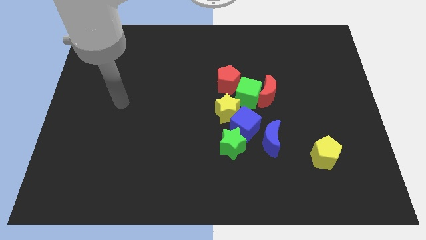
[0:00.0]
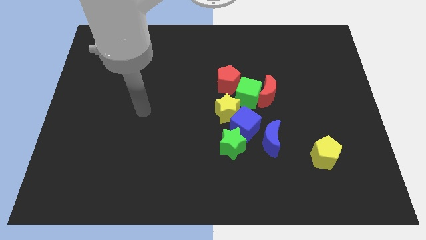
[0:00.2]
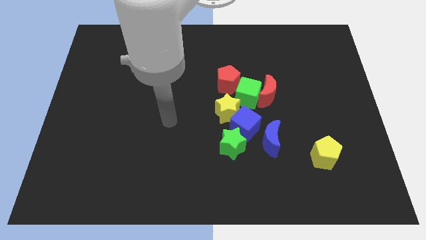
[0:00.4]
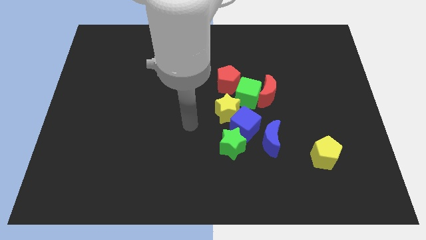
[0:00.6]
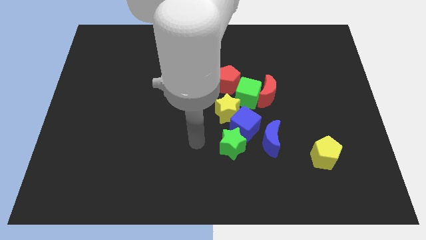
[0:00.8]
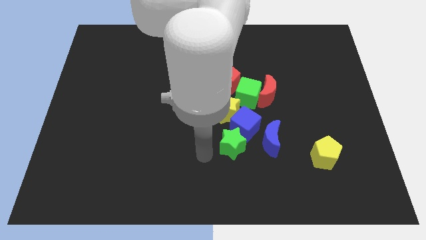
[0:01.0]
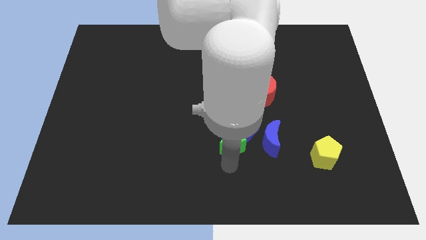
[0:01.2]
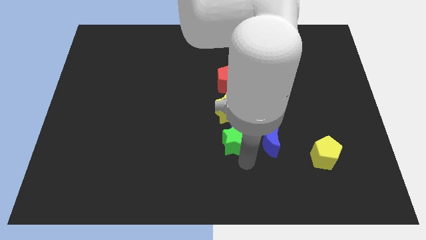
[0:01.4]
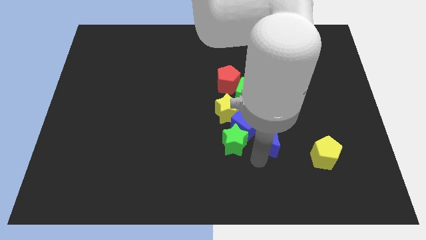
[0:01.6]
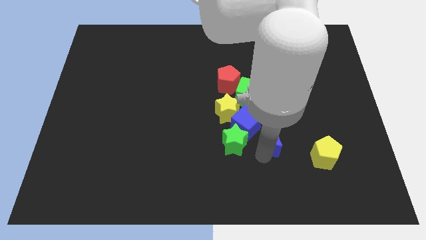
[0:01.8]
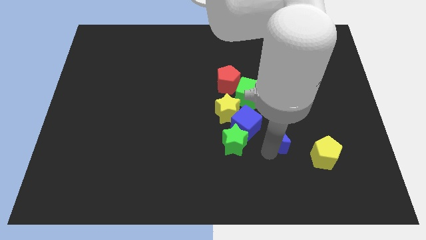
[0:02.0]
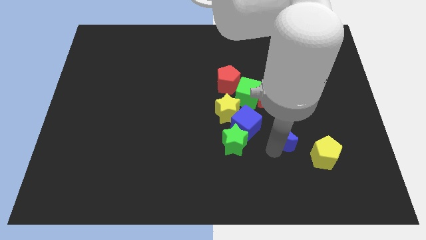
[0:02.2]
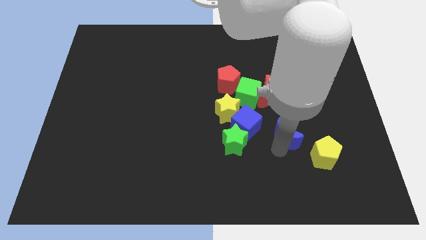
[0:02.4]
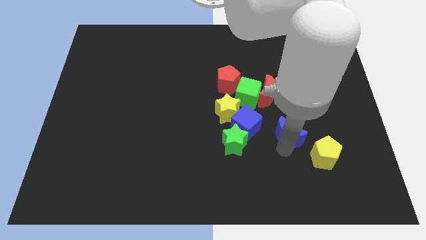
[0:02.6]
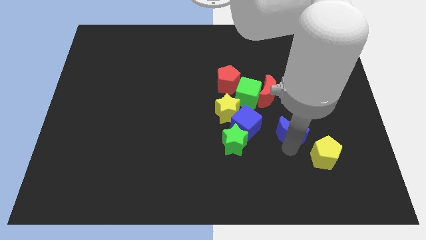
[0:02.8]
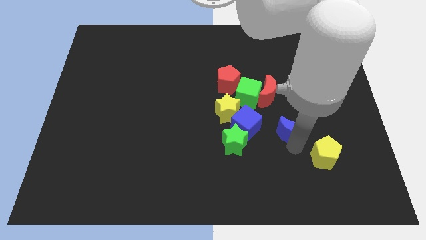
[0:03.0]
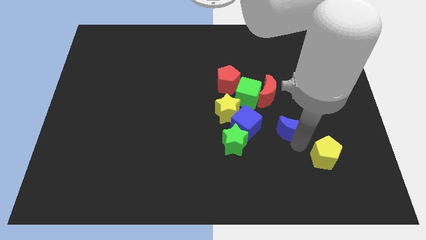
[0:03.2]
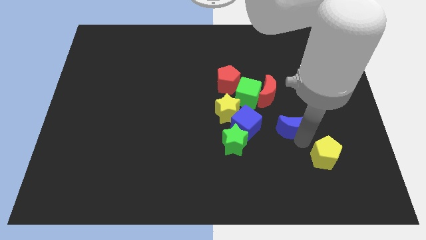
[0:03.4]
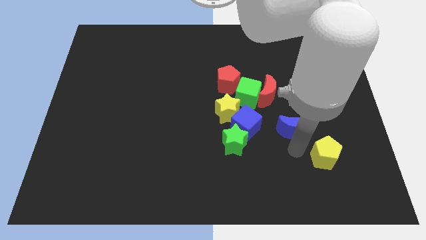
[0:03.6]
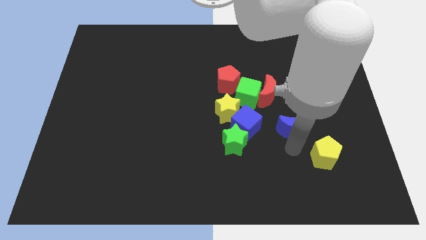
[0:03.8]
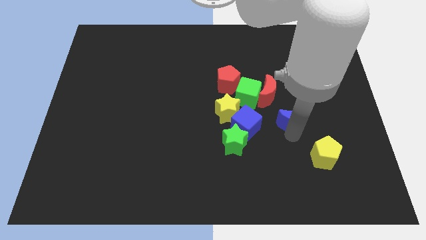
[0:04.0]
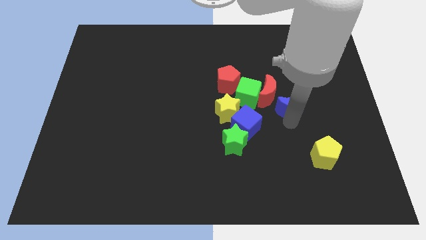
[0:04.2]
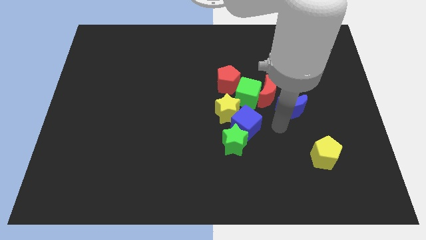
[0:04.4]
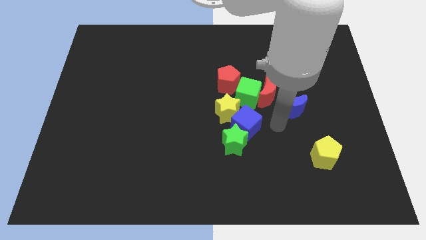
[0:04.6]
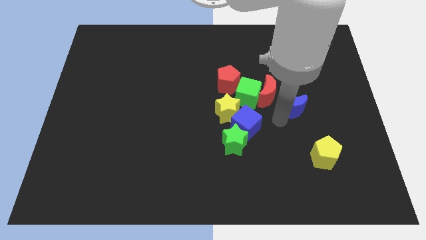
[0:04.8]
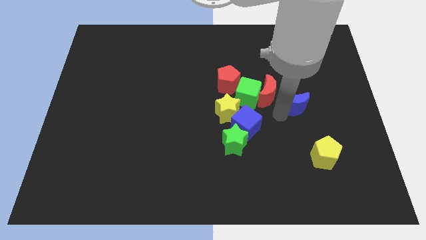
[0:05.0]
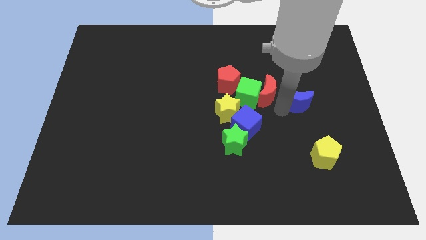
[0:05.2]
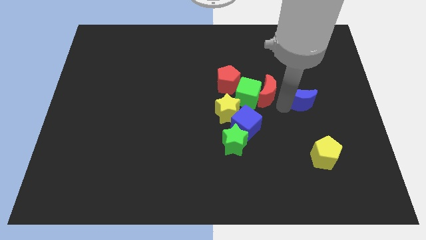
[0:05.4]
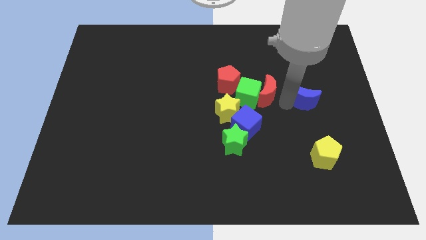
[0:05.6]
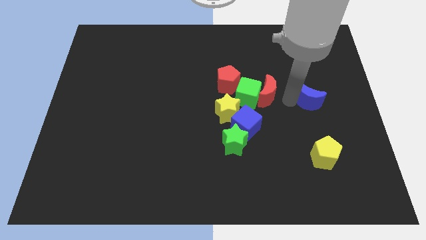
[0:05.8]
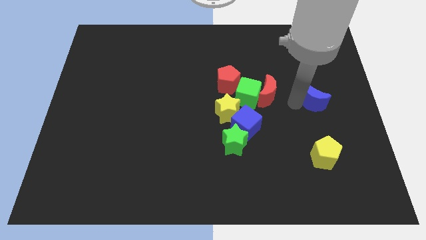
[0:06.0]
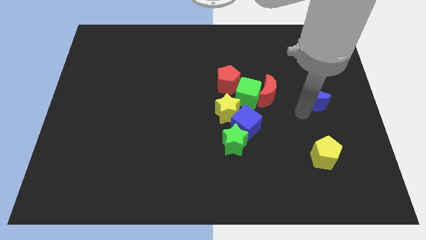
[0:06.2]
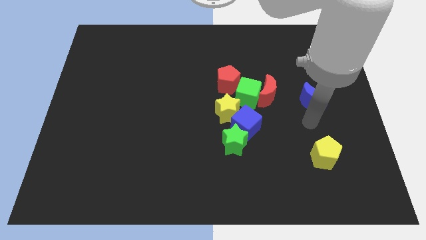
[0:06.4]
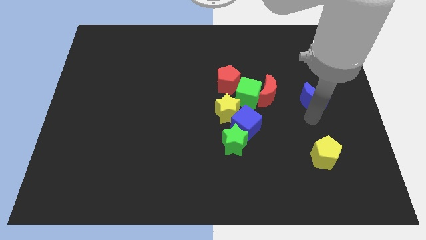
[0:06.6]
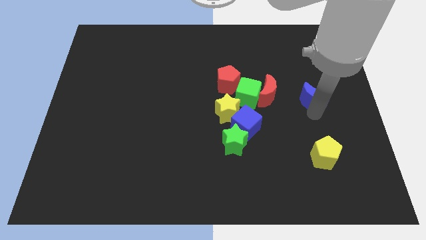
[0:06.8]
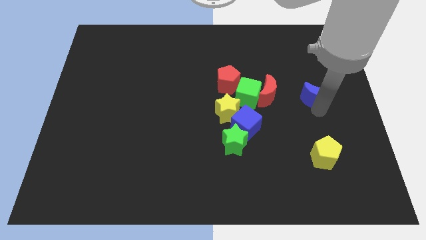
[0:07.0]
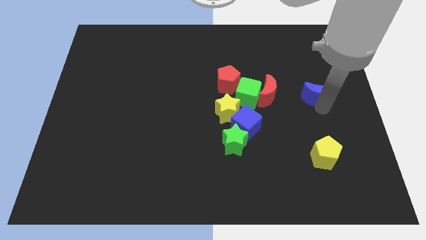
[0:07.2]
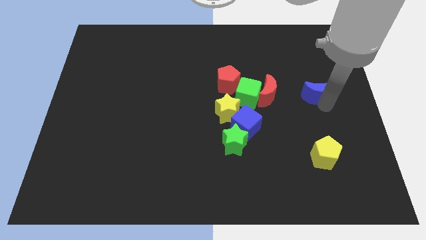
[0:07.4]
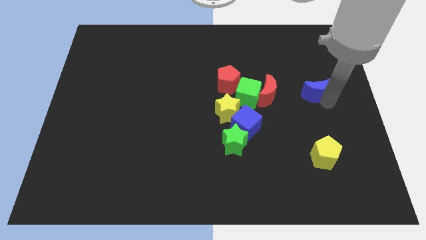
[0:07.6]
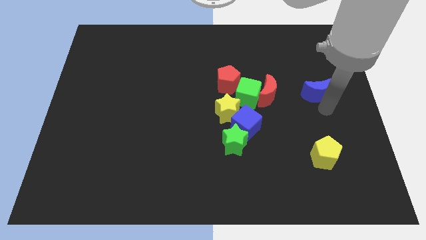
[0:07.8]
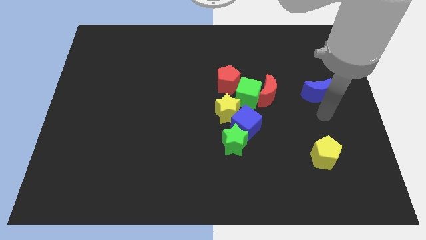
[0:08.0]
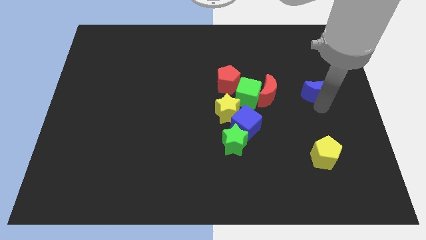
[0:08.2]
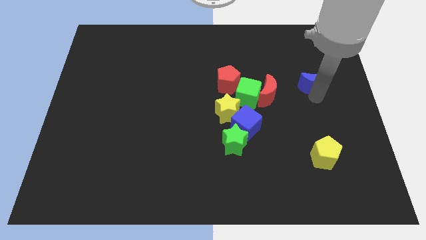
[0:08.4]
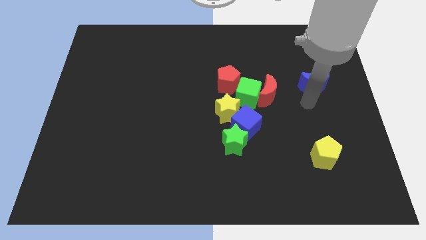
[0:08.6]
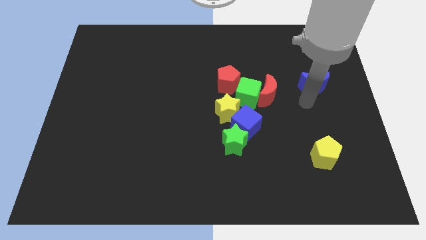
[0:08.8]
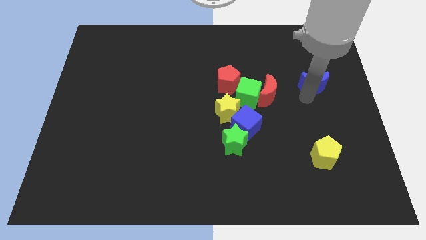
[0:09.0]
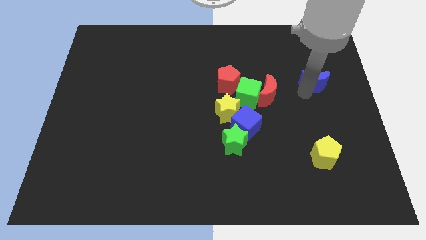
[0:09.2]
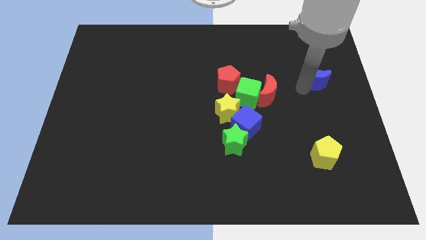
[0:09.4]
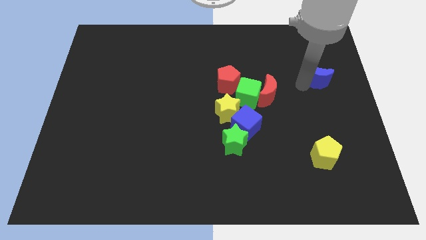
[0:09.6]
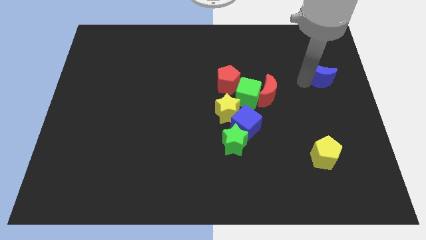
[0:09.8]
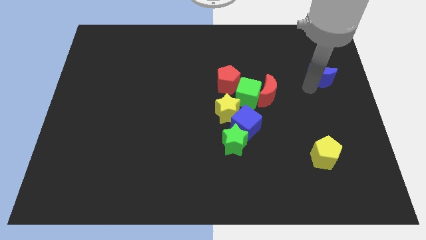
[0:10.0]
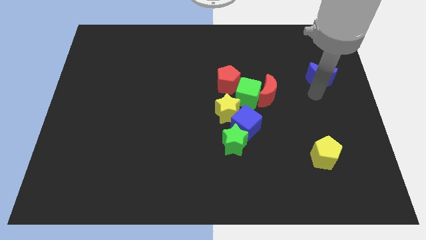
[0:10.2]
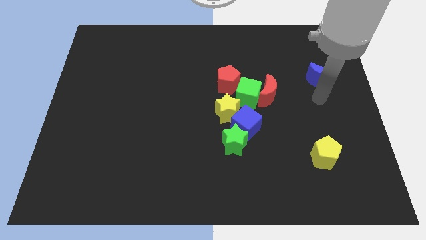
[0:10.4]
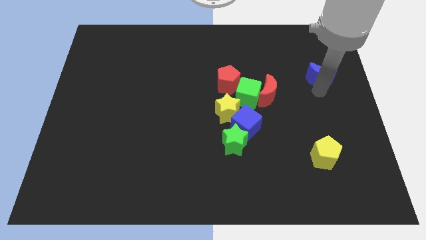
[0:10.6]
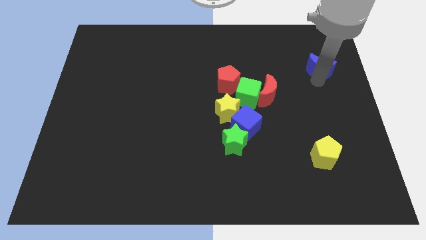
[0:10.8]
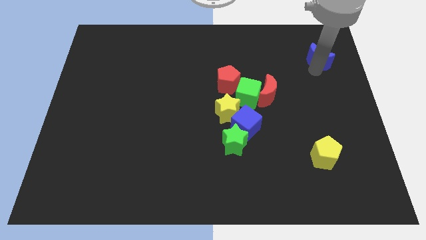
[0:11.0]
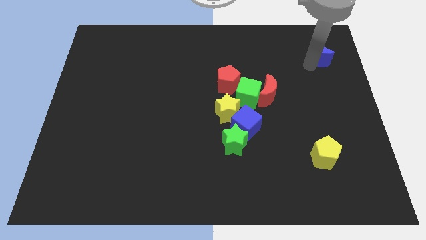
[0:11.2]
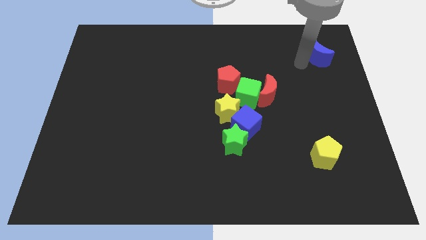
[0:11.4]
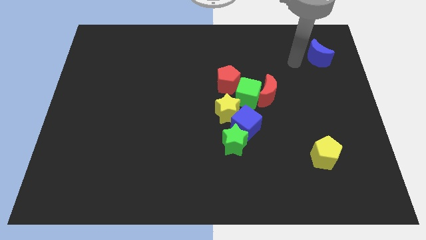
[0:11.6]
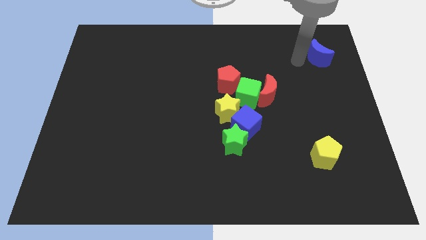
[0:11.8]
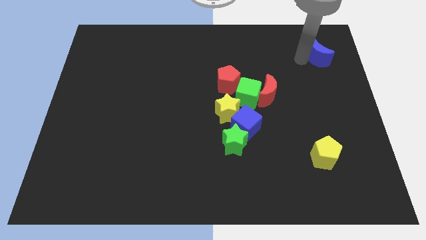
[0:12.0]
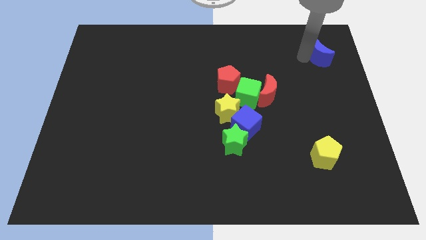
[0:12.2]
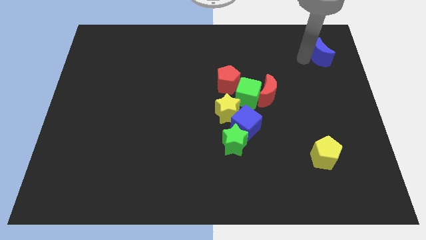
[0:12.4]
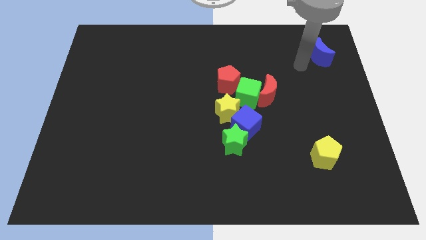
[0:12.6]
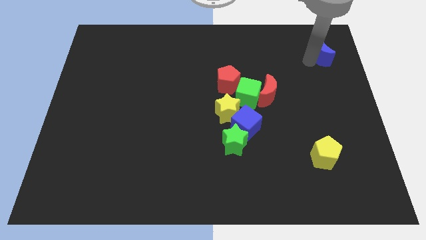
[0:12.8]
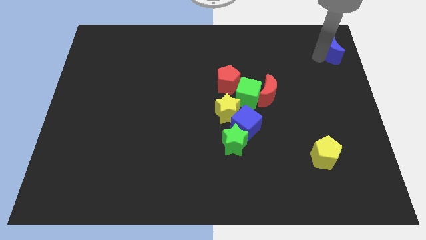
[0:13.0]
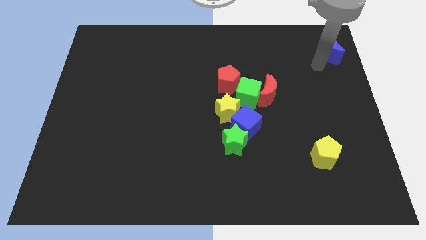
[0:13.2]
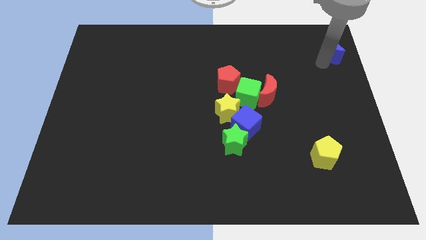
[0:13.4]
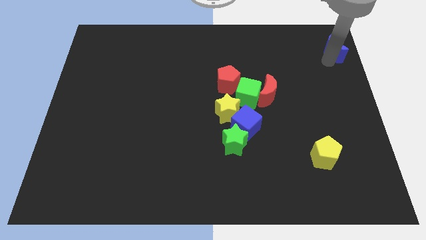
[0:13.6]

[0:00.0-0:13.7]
move the blue moon to the top right corner
